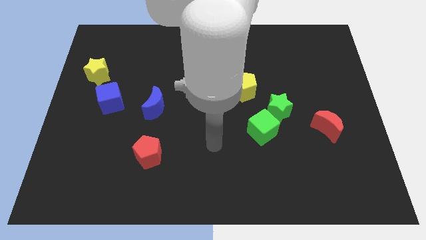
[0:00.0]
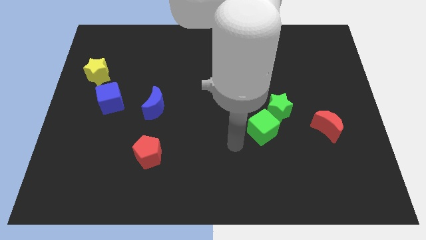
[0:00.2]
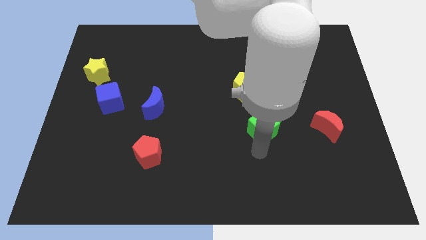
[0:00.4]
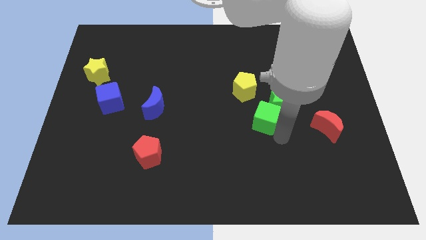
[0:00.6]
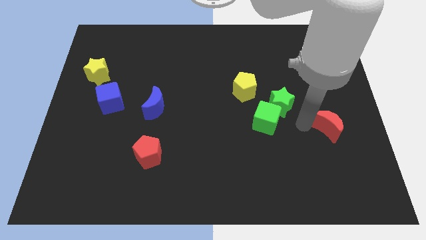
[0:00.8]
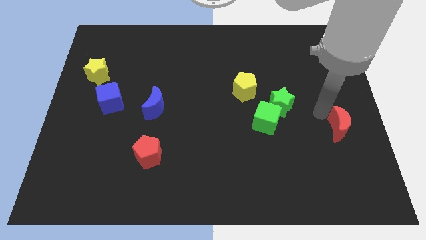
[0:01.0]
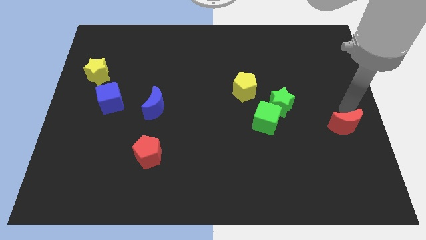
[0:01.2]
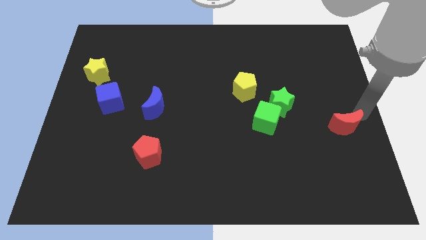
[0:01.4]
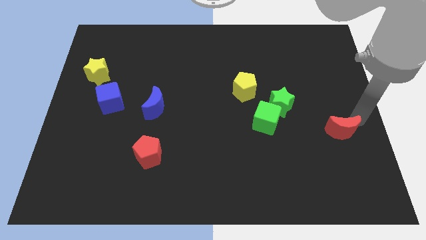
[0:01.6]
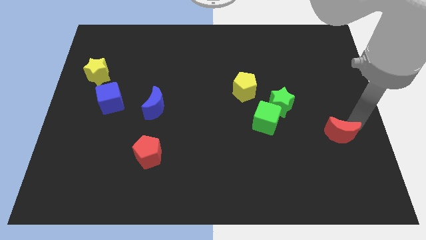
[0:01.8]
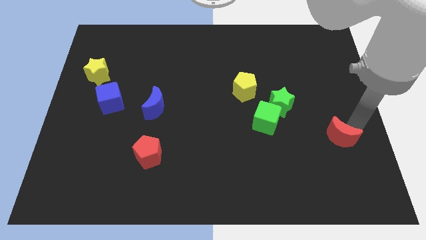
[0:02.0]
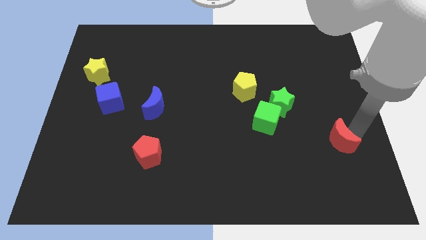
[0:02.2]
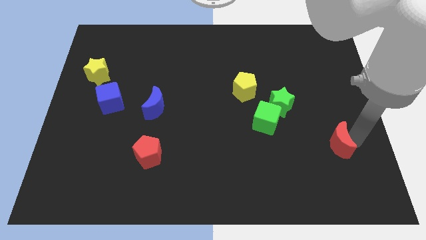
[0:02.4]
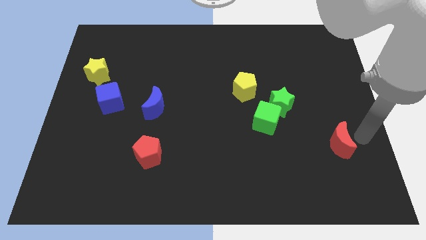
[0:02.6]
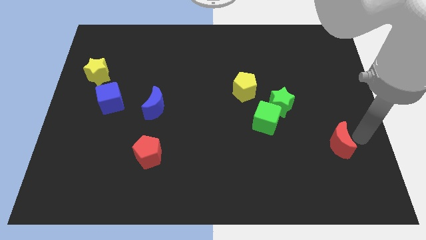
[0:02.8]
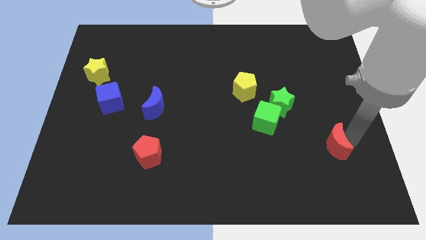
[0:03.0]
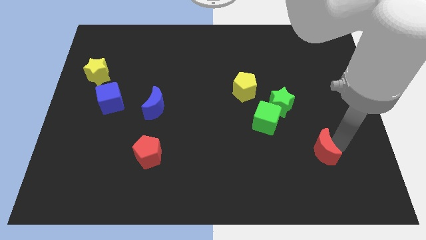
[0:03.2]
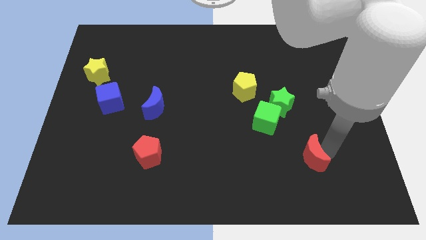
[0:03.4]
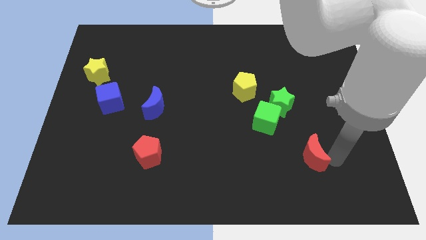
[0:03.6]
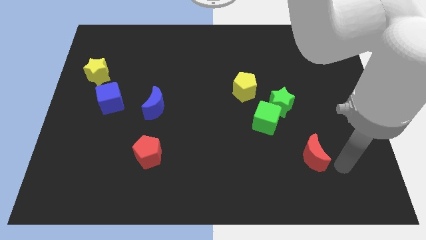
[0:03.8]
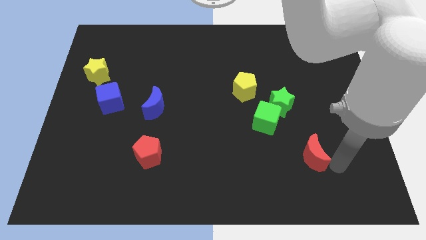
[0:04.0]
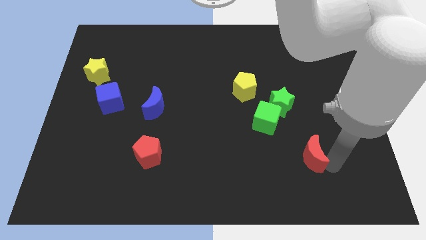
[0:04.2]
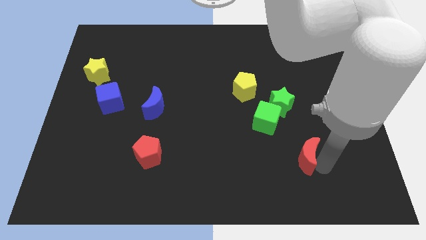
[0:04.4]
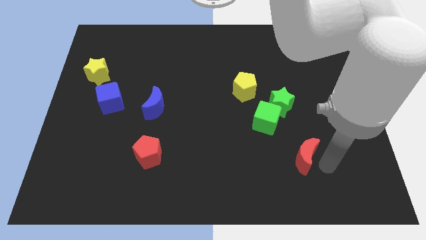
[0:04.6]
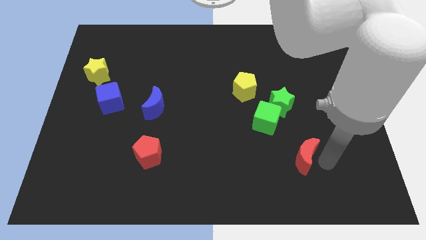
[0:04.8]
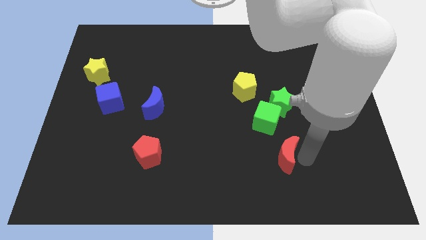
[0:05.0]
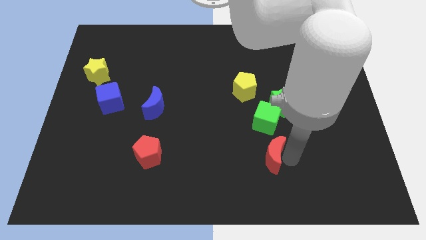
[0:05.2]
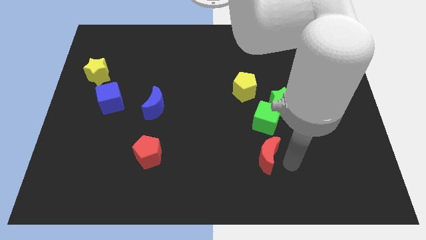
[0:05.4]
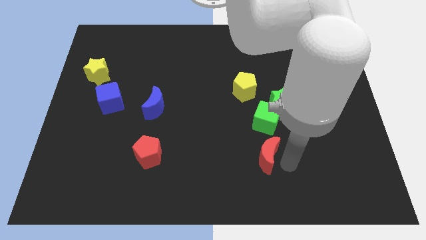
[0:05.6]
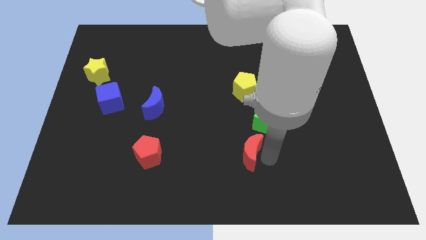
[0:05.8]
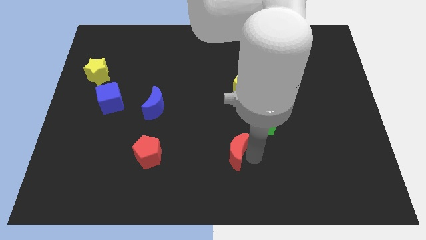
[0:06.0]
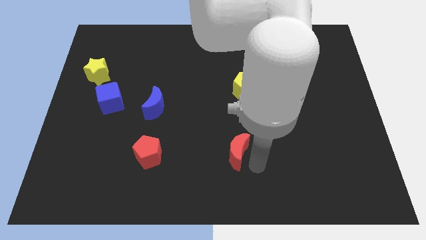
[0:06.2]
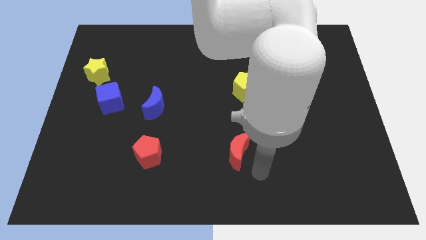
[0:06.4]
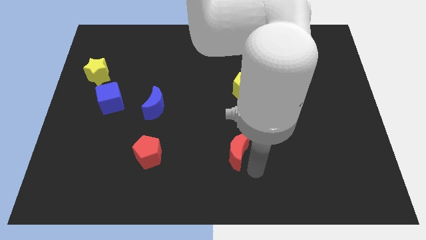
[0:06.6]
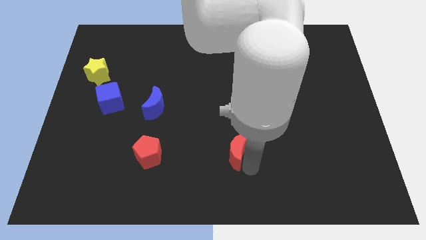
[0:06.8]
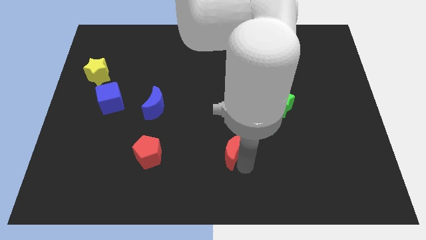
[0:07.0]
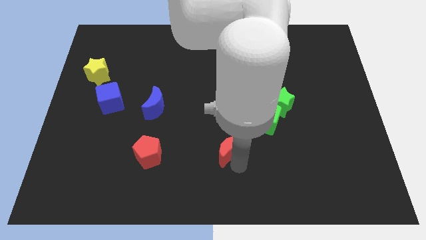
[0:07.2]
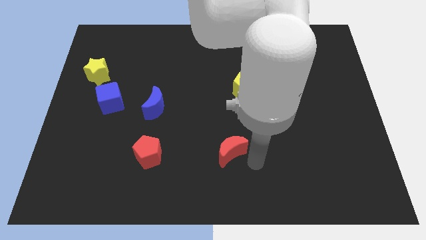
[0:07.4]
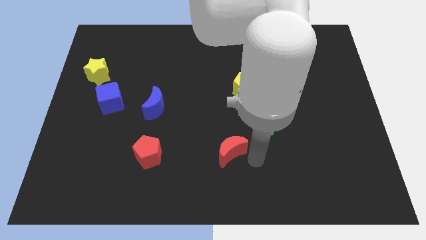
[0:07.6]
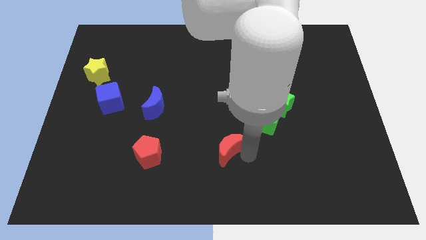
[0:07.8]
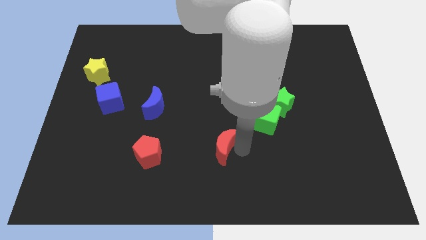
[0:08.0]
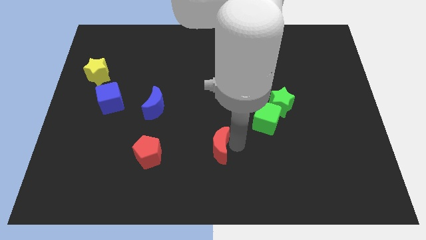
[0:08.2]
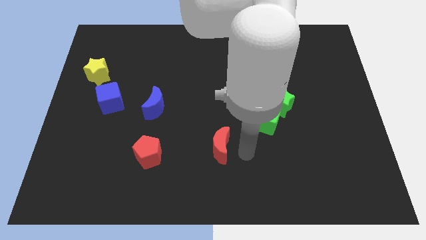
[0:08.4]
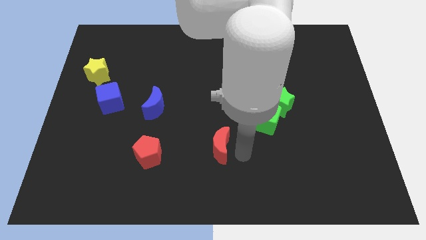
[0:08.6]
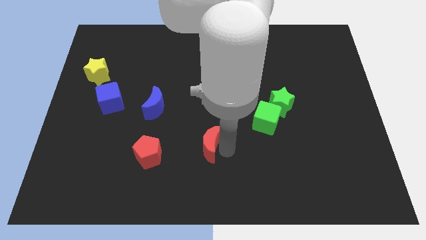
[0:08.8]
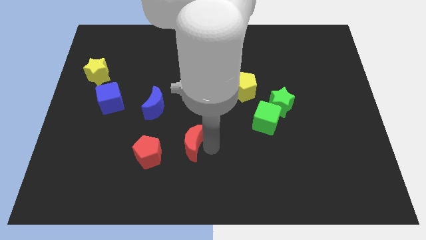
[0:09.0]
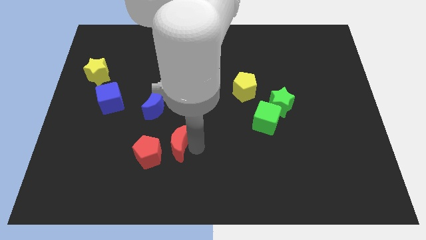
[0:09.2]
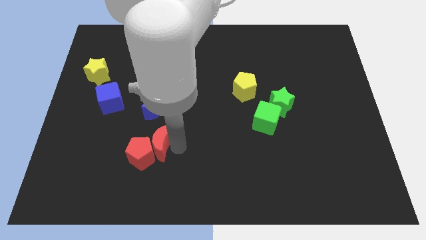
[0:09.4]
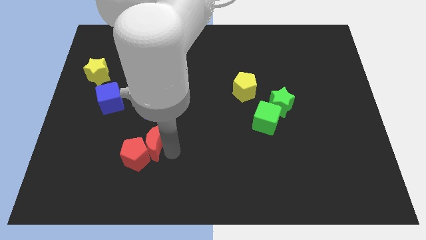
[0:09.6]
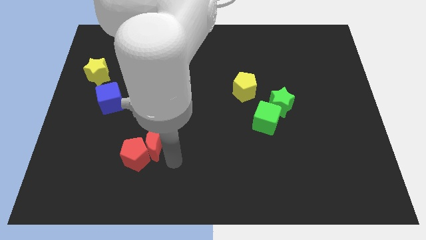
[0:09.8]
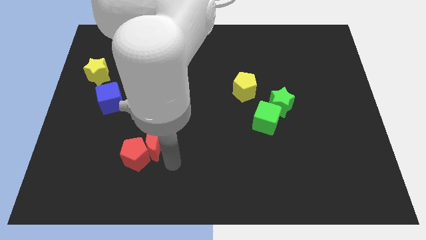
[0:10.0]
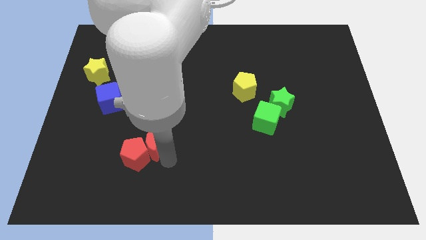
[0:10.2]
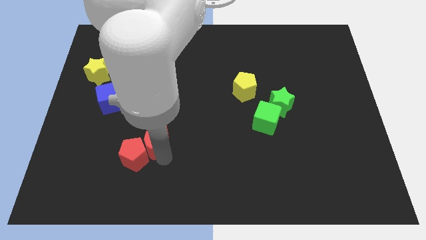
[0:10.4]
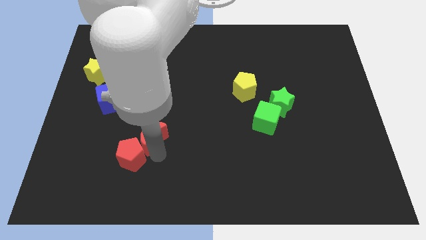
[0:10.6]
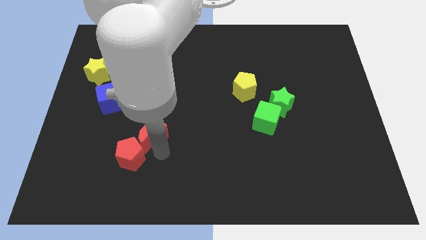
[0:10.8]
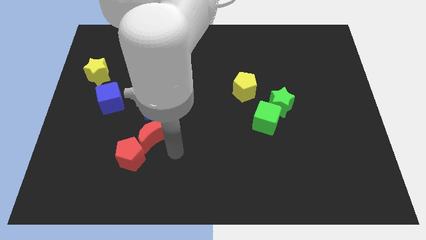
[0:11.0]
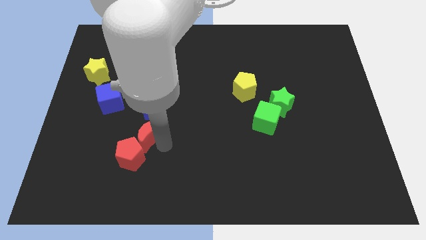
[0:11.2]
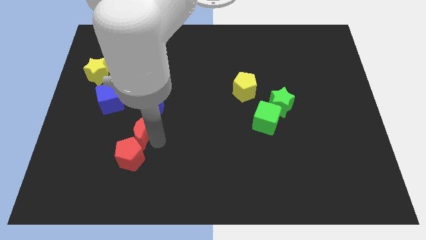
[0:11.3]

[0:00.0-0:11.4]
put the red moon diagonally down and to the left of the blue moon

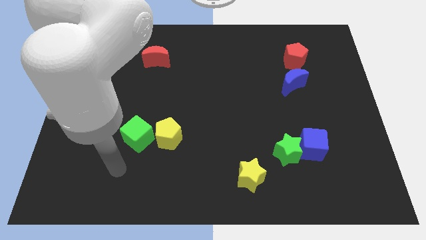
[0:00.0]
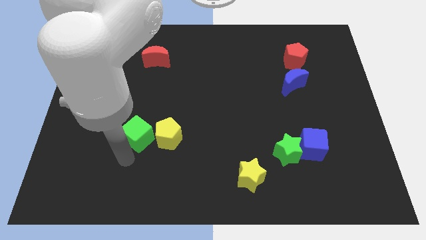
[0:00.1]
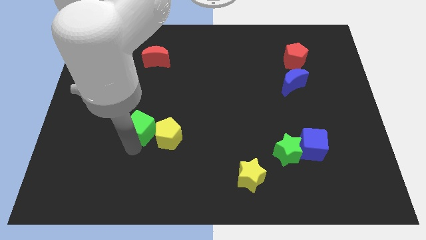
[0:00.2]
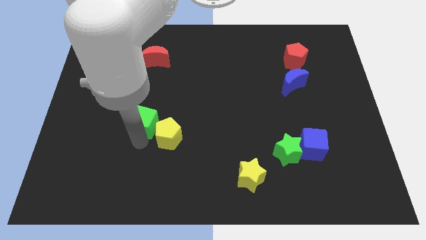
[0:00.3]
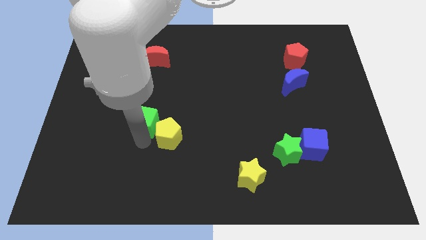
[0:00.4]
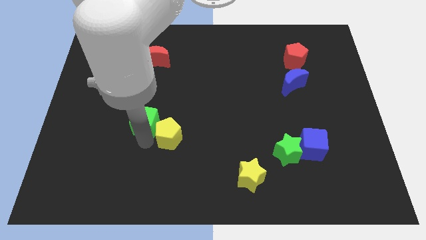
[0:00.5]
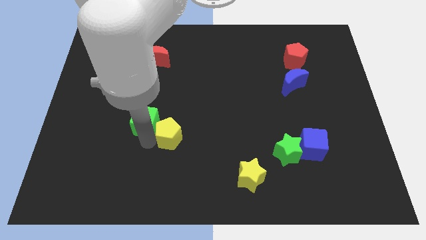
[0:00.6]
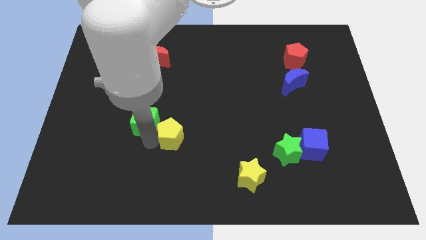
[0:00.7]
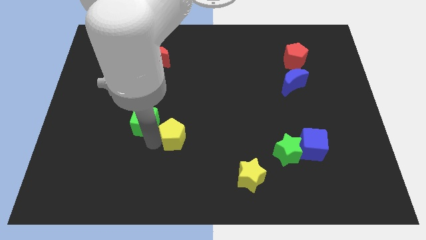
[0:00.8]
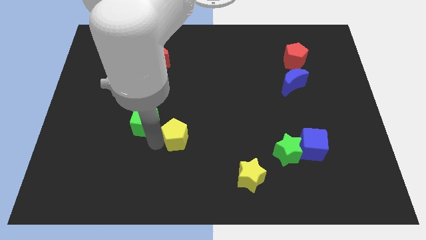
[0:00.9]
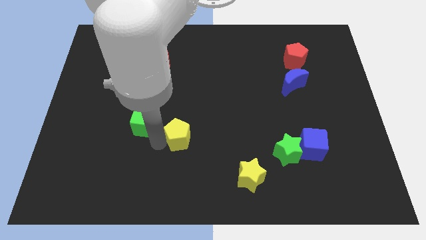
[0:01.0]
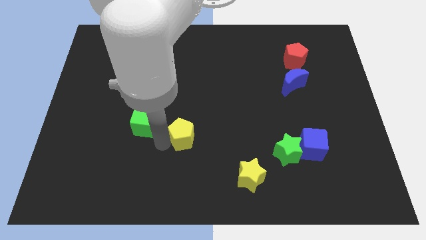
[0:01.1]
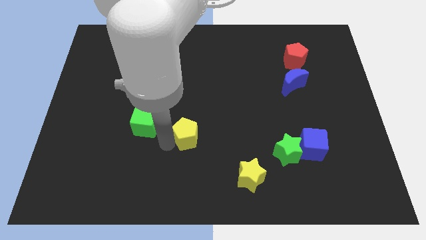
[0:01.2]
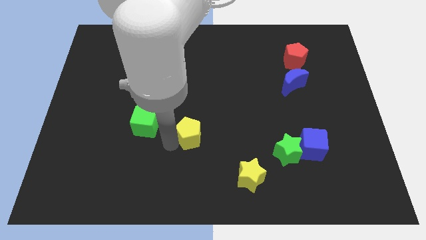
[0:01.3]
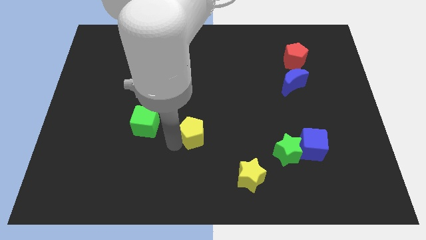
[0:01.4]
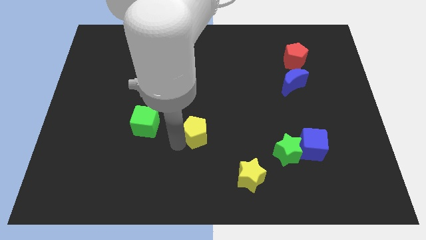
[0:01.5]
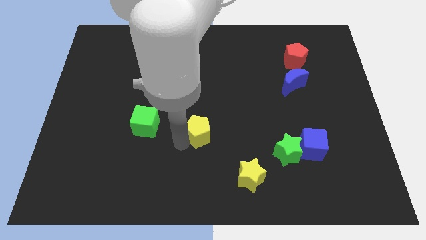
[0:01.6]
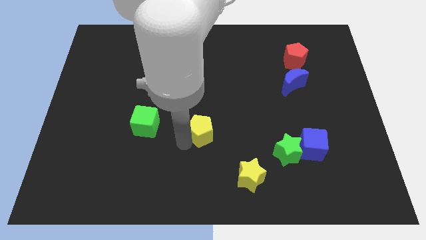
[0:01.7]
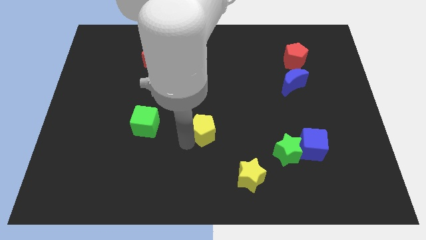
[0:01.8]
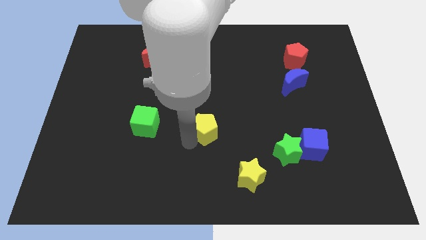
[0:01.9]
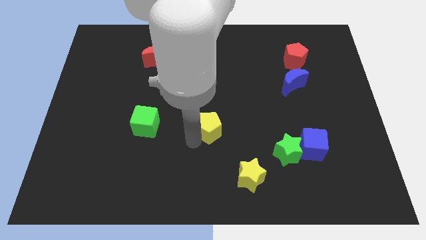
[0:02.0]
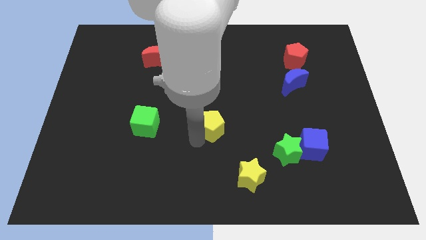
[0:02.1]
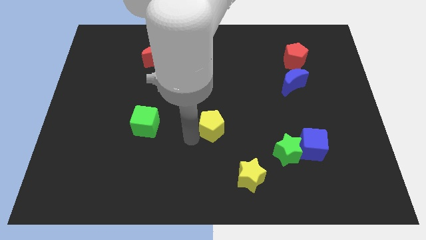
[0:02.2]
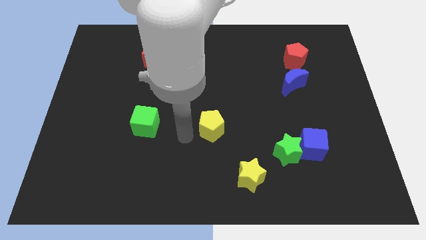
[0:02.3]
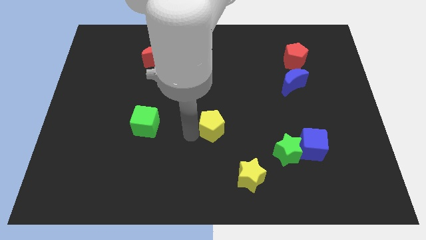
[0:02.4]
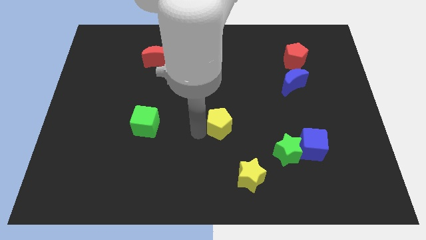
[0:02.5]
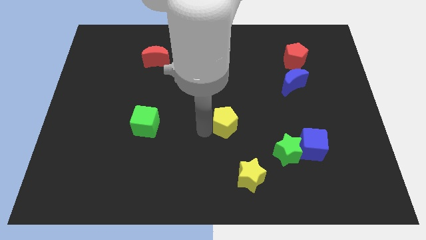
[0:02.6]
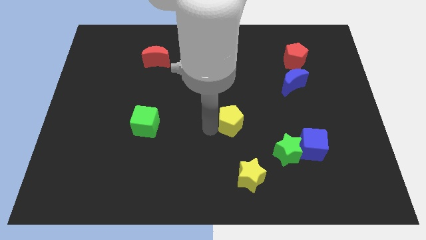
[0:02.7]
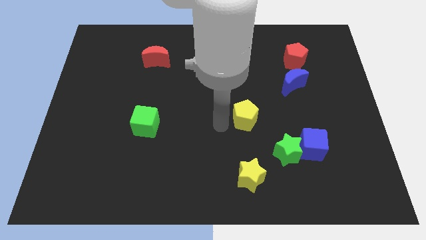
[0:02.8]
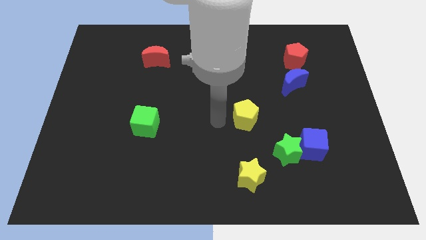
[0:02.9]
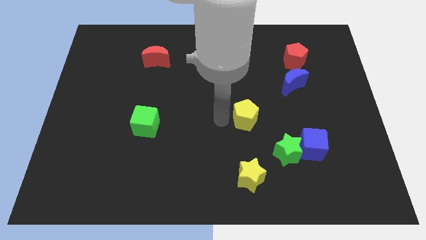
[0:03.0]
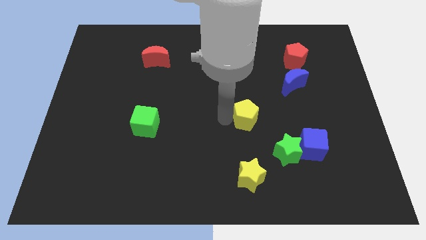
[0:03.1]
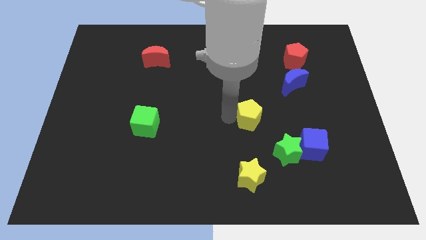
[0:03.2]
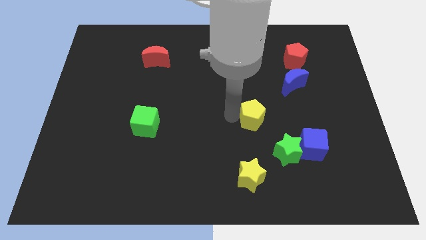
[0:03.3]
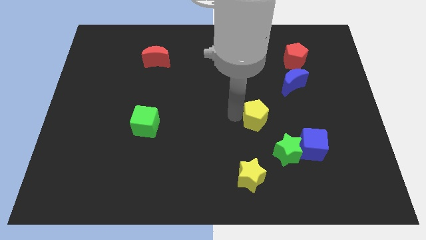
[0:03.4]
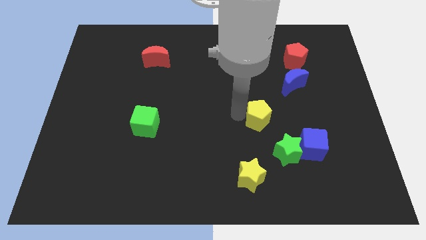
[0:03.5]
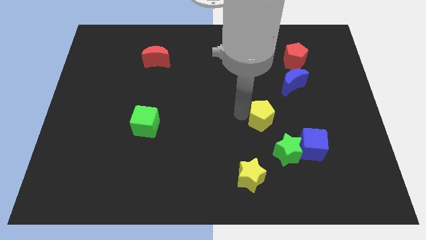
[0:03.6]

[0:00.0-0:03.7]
put the yellow pentagon above the green star
